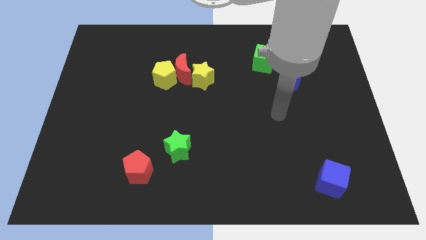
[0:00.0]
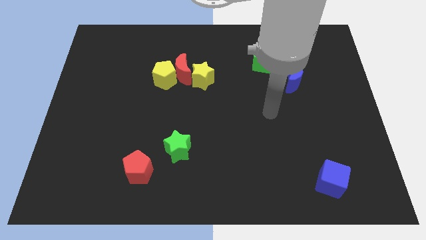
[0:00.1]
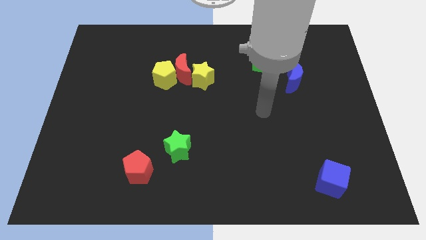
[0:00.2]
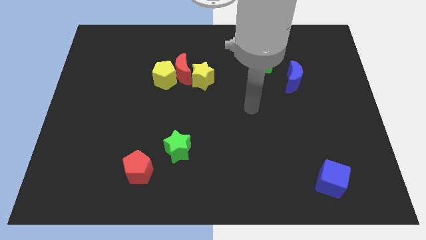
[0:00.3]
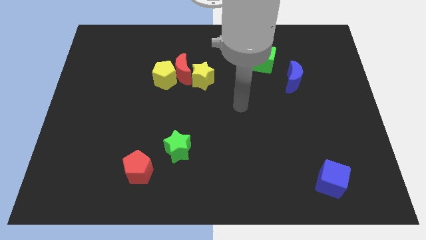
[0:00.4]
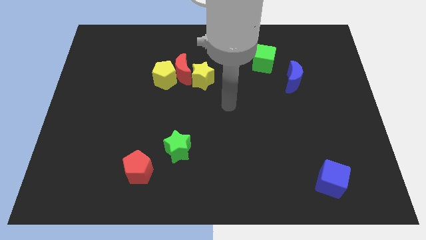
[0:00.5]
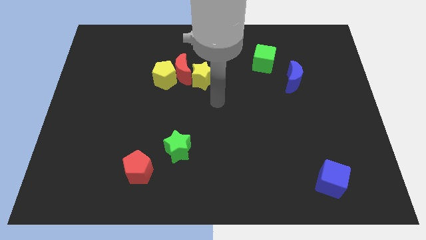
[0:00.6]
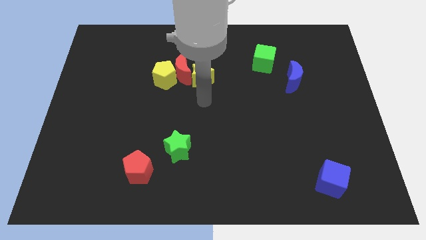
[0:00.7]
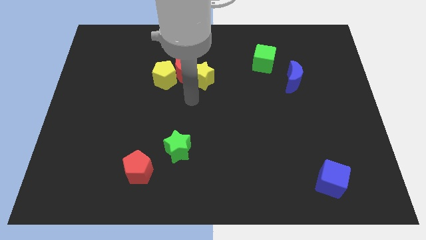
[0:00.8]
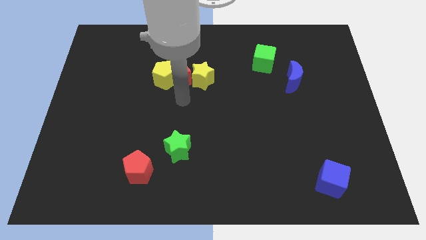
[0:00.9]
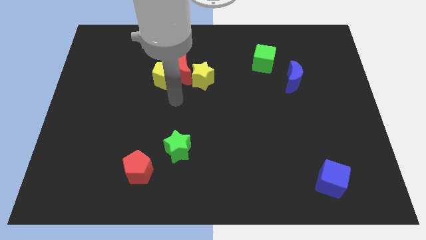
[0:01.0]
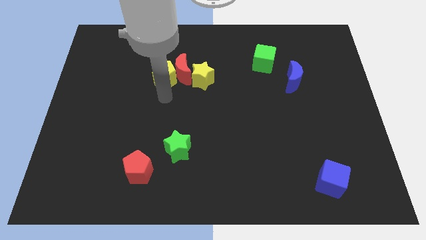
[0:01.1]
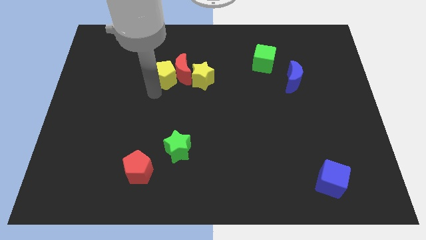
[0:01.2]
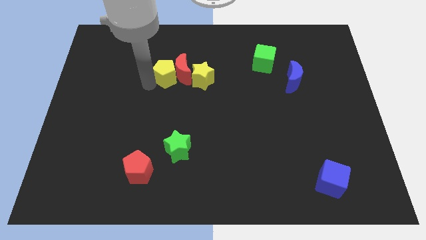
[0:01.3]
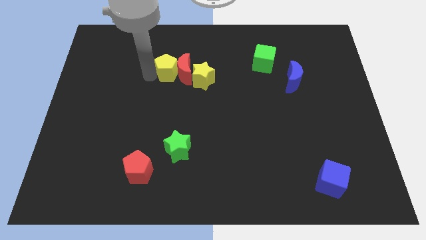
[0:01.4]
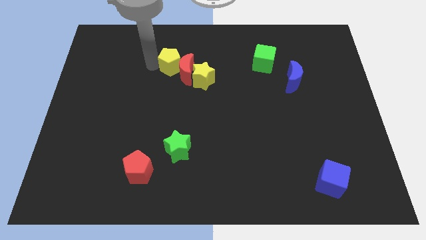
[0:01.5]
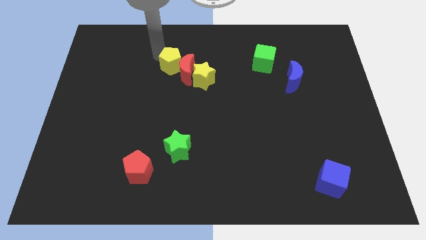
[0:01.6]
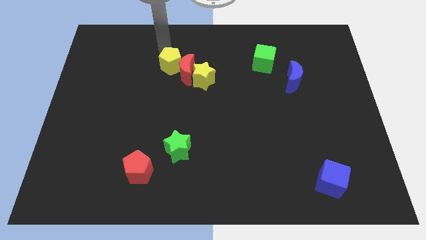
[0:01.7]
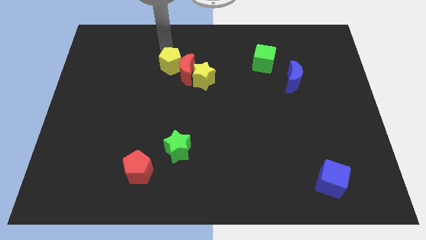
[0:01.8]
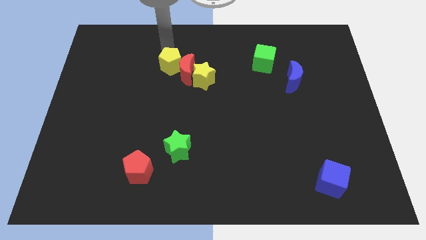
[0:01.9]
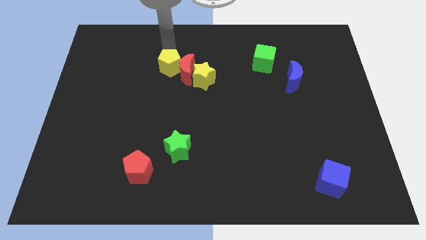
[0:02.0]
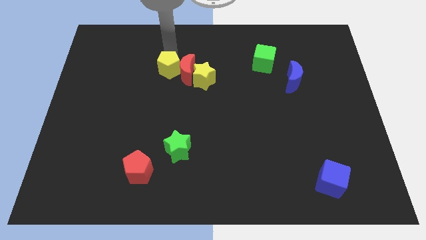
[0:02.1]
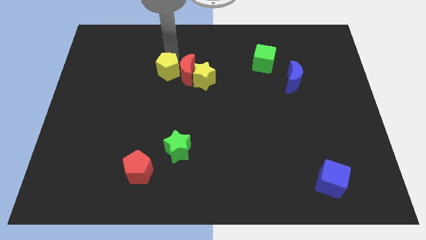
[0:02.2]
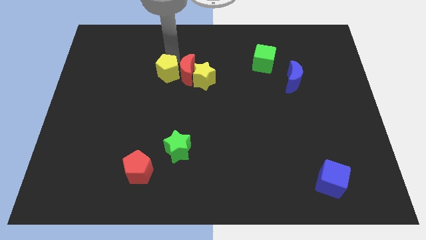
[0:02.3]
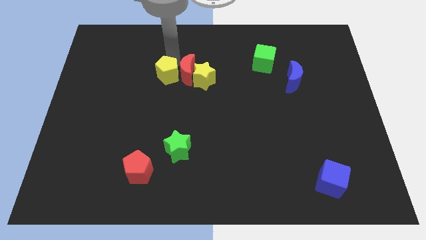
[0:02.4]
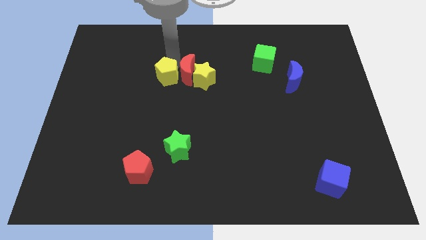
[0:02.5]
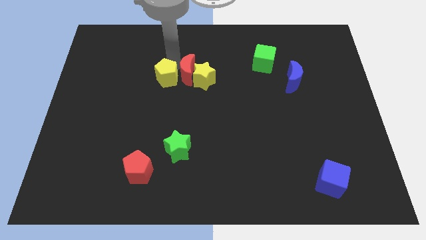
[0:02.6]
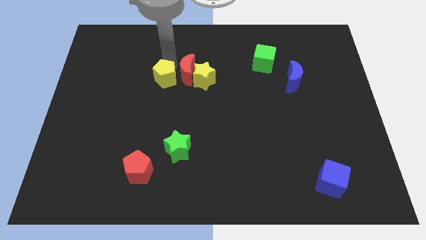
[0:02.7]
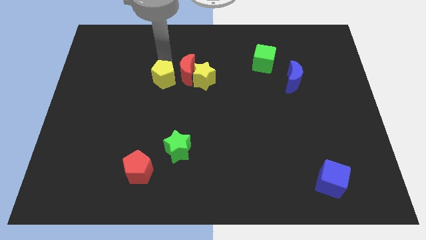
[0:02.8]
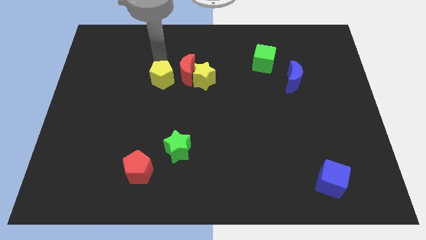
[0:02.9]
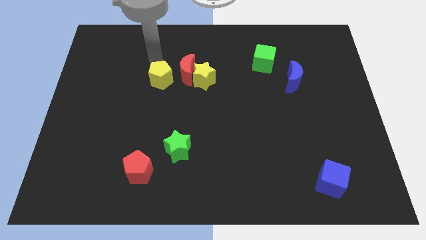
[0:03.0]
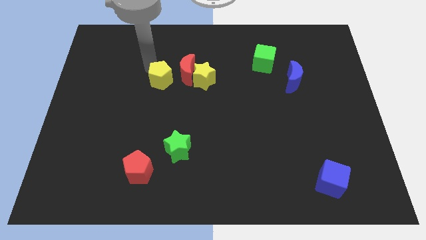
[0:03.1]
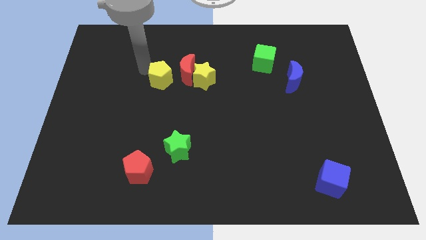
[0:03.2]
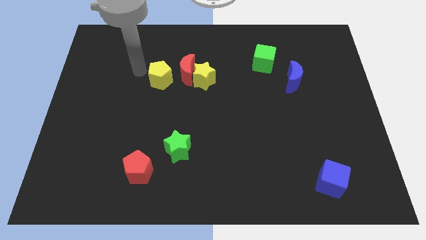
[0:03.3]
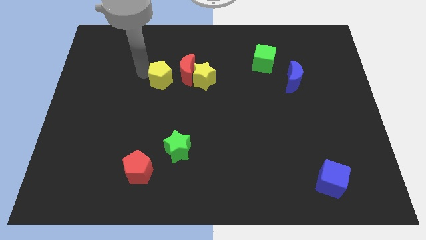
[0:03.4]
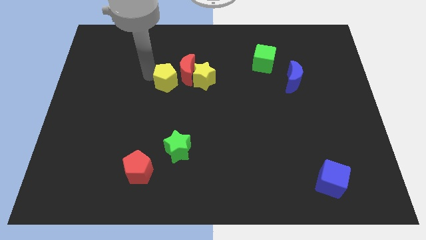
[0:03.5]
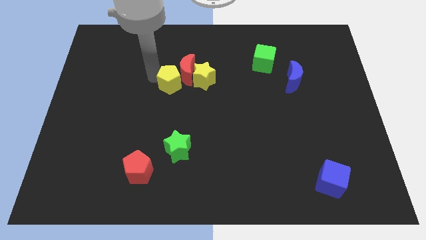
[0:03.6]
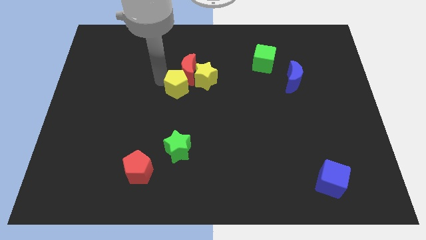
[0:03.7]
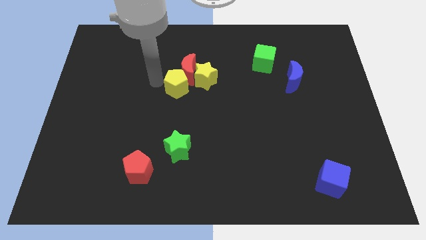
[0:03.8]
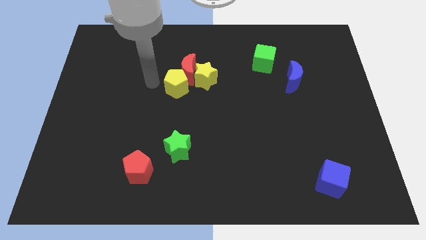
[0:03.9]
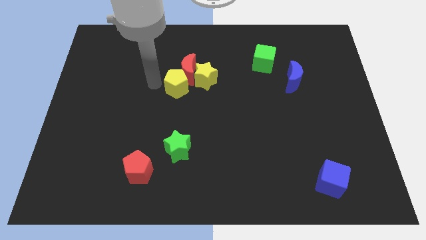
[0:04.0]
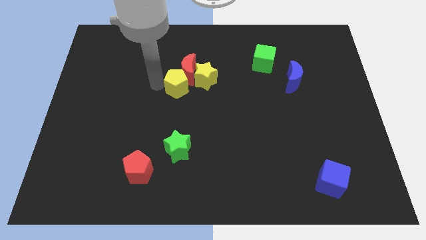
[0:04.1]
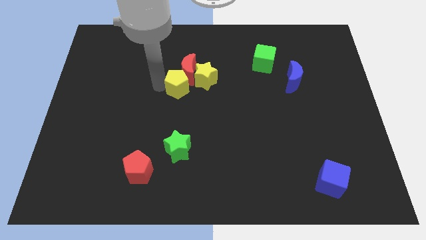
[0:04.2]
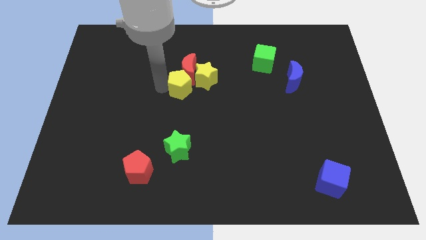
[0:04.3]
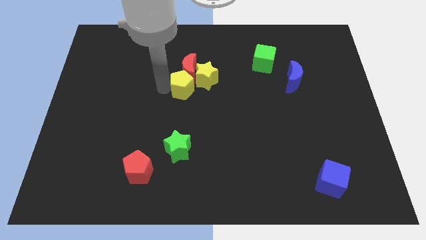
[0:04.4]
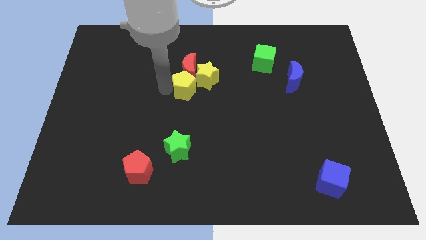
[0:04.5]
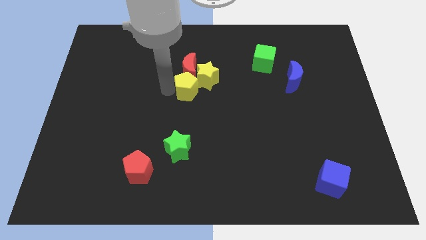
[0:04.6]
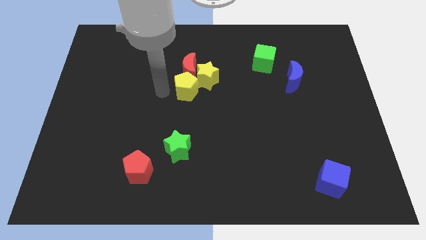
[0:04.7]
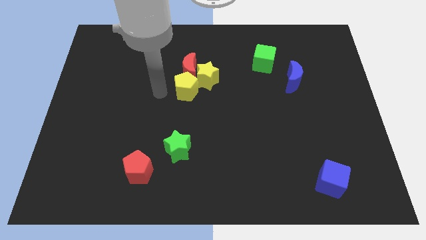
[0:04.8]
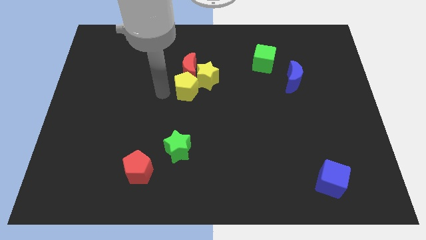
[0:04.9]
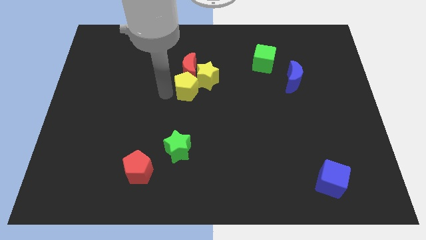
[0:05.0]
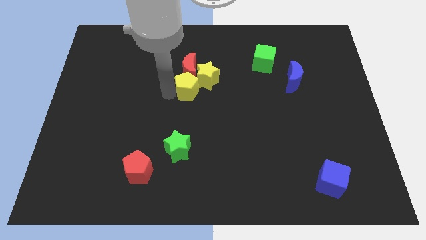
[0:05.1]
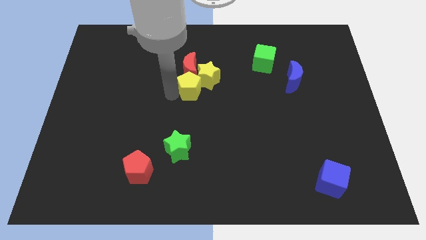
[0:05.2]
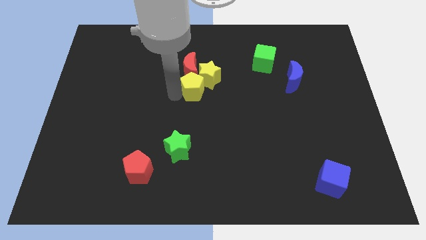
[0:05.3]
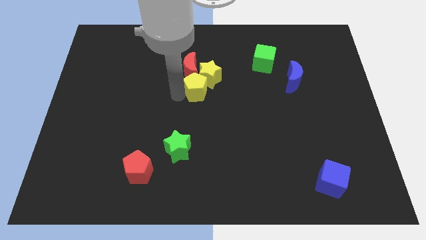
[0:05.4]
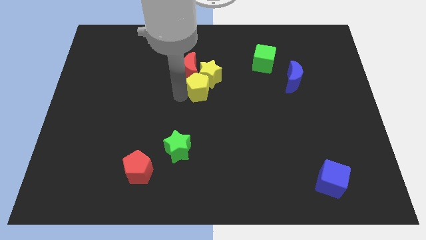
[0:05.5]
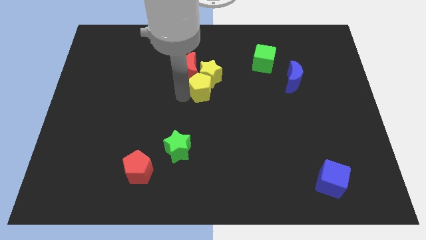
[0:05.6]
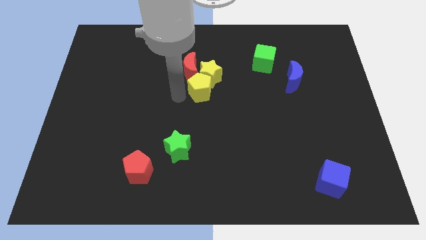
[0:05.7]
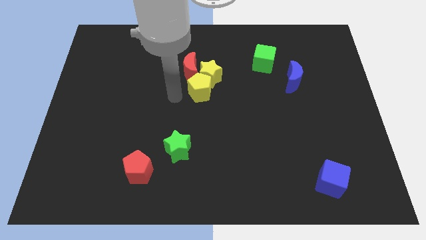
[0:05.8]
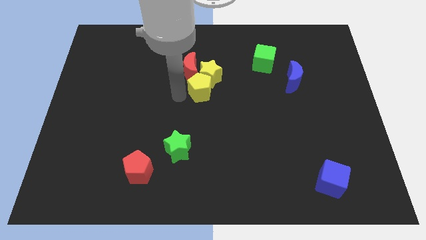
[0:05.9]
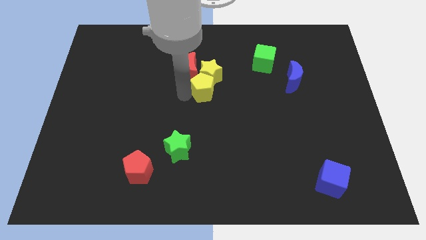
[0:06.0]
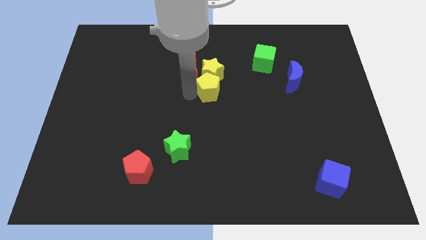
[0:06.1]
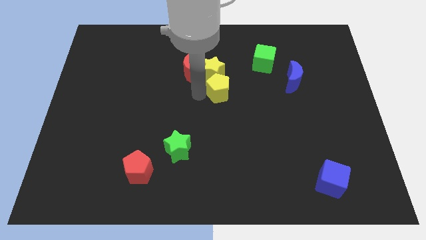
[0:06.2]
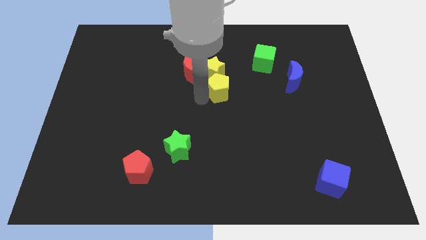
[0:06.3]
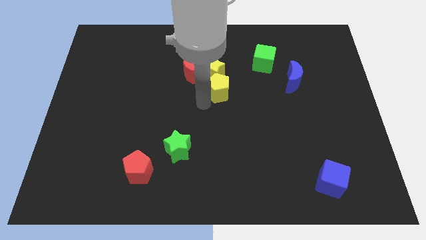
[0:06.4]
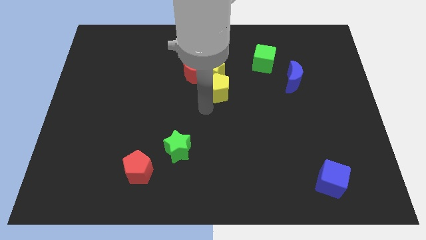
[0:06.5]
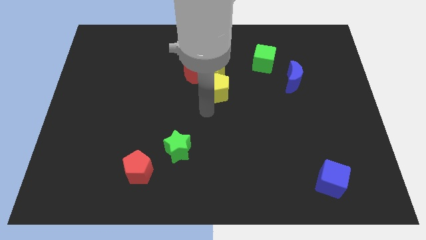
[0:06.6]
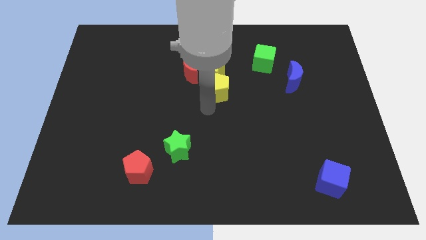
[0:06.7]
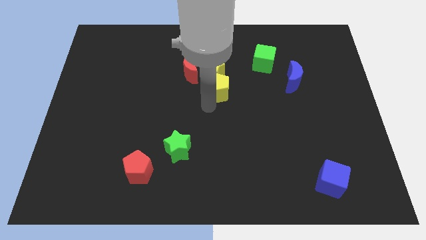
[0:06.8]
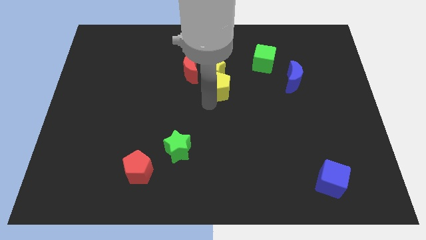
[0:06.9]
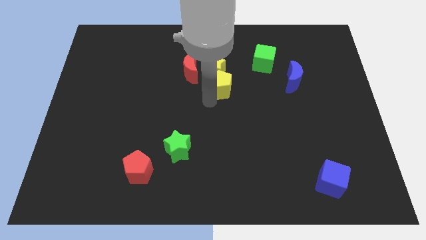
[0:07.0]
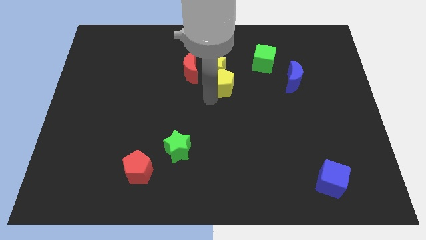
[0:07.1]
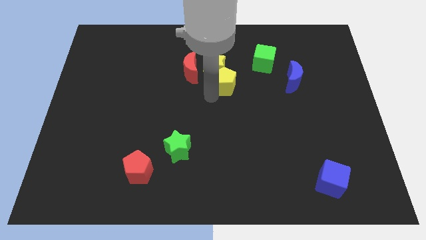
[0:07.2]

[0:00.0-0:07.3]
slide the yellow pentagon just right of the red moon
